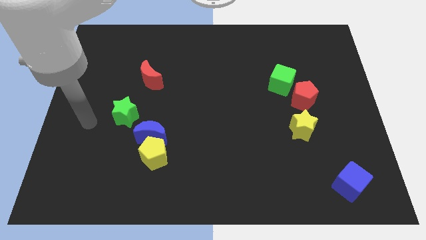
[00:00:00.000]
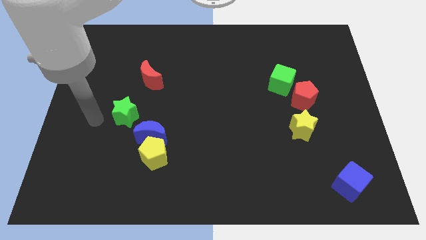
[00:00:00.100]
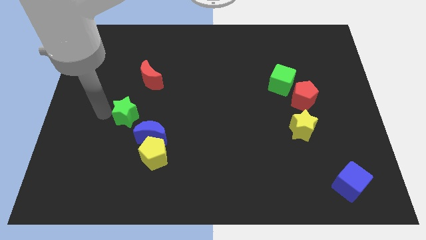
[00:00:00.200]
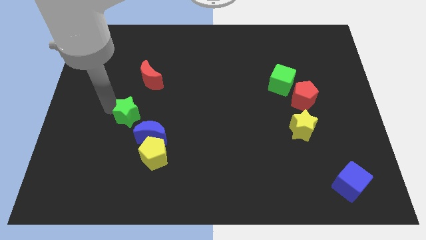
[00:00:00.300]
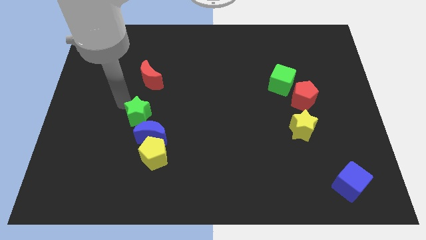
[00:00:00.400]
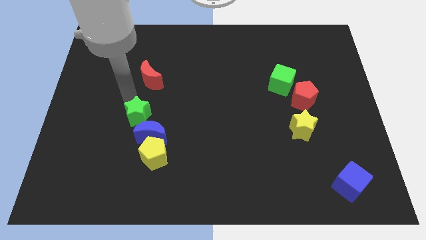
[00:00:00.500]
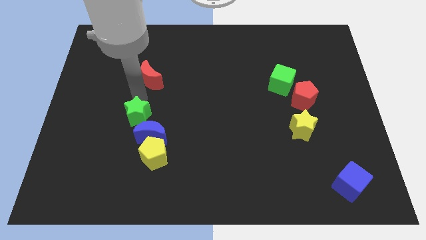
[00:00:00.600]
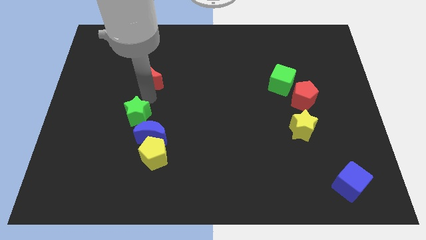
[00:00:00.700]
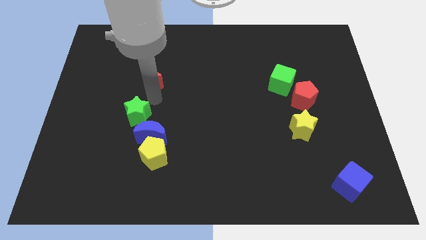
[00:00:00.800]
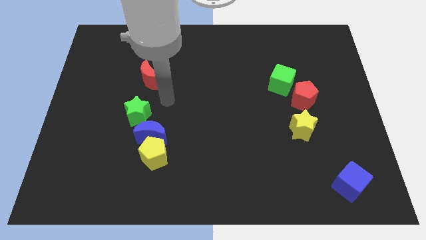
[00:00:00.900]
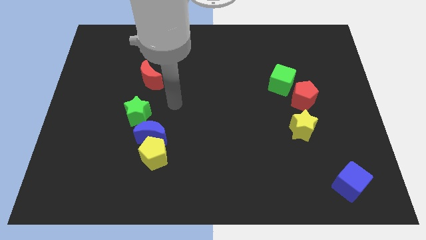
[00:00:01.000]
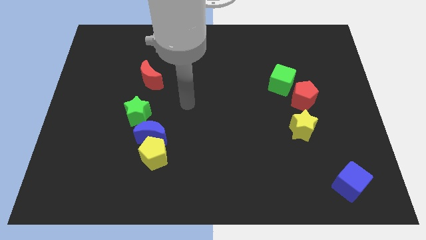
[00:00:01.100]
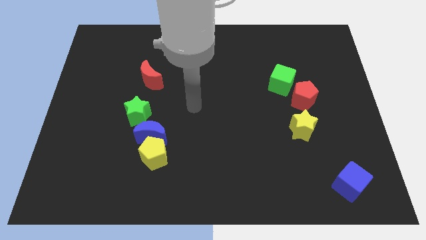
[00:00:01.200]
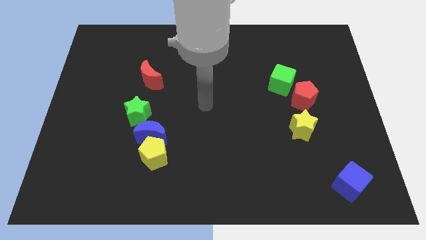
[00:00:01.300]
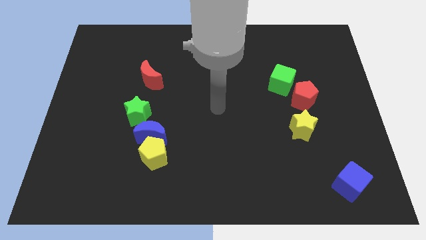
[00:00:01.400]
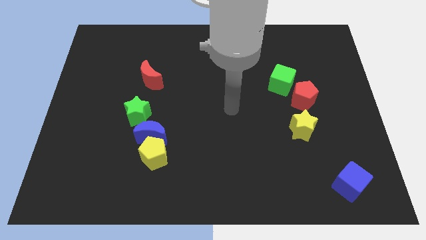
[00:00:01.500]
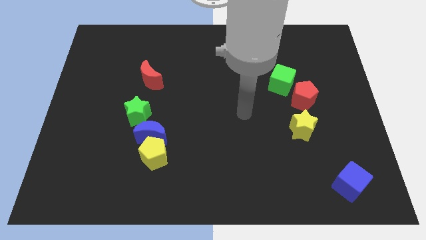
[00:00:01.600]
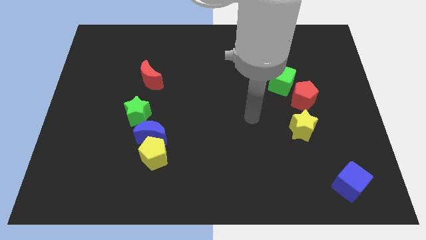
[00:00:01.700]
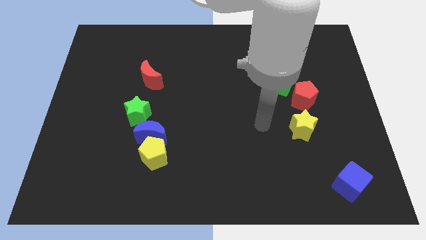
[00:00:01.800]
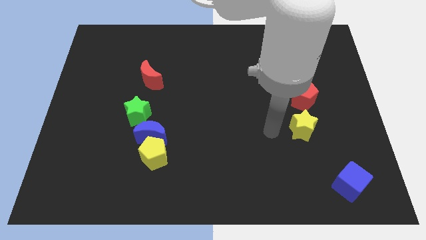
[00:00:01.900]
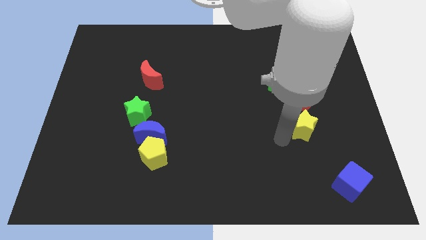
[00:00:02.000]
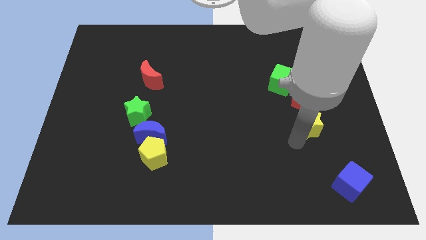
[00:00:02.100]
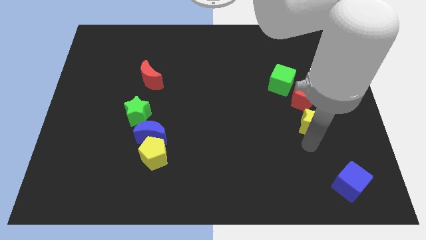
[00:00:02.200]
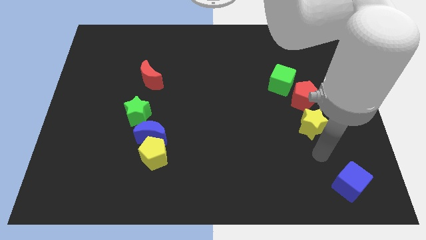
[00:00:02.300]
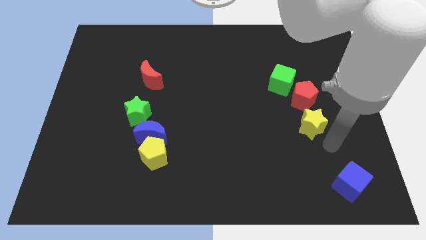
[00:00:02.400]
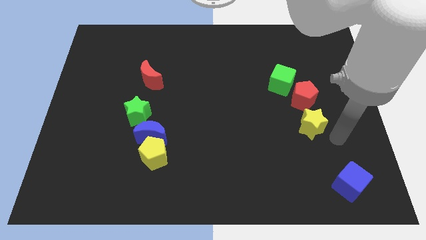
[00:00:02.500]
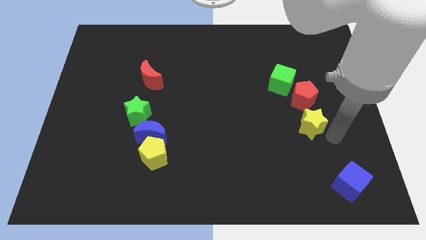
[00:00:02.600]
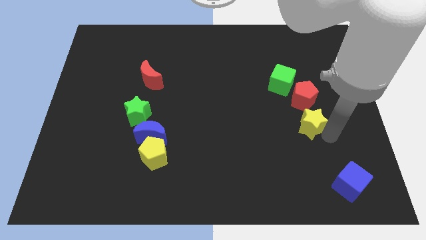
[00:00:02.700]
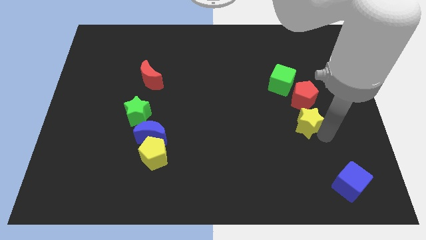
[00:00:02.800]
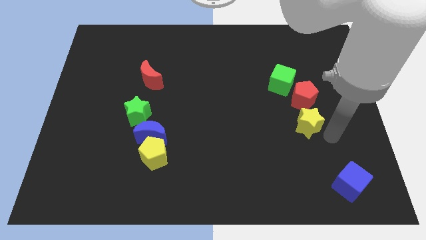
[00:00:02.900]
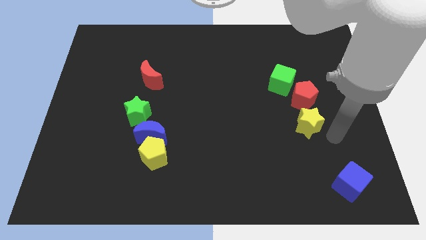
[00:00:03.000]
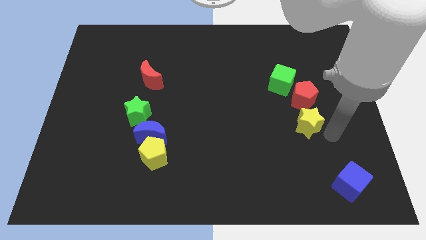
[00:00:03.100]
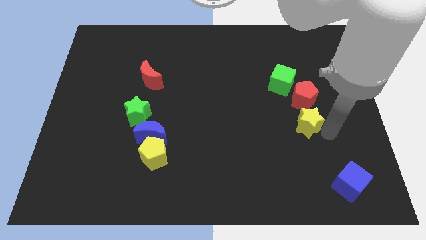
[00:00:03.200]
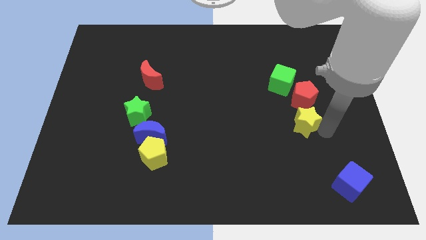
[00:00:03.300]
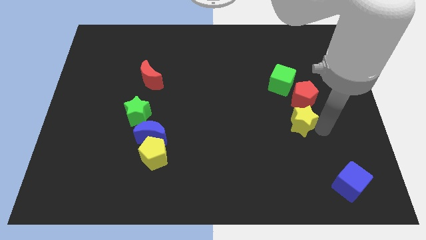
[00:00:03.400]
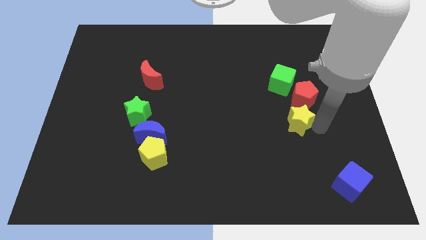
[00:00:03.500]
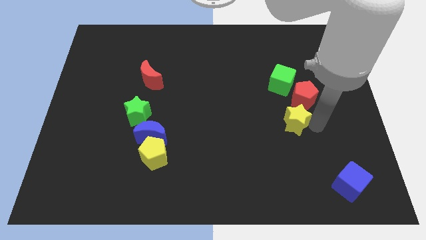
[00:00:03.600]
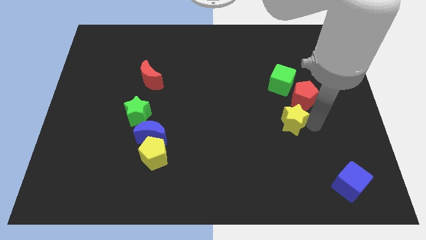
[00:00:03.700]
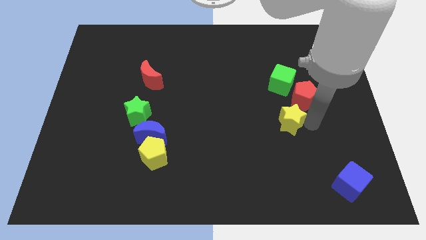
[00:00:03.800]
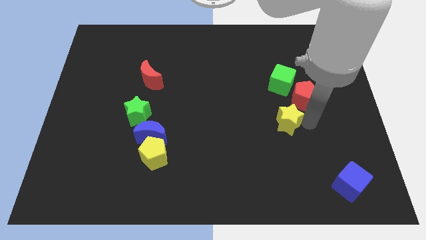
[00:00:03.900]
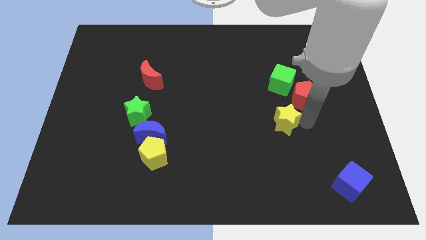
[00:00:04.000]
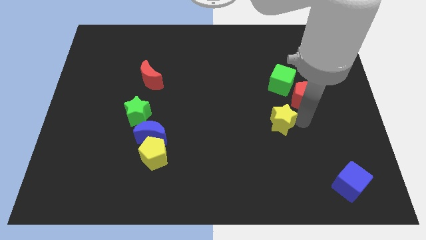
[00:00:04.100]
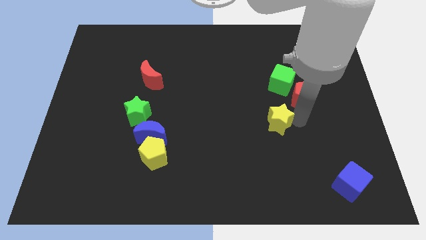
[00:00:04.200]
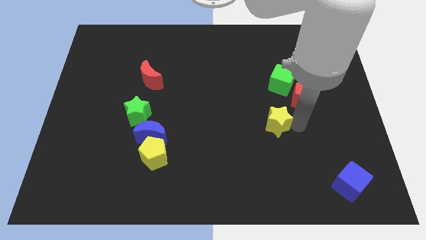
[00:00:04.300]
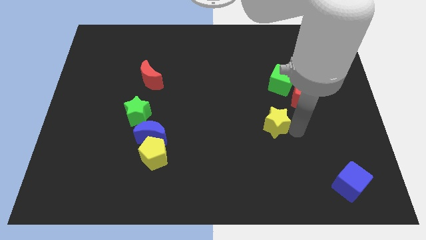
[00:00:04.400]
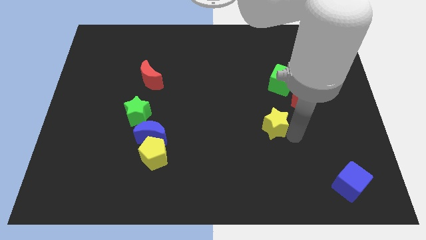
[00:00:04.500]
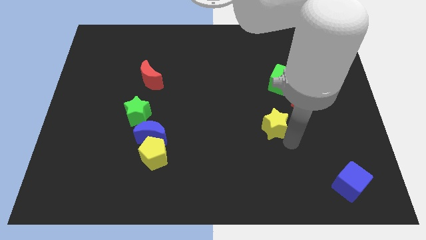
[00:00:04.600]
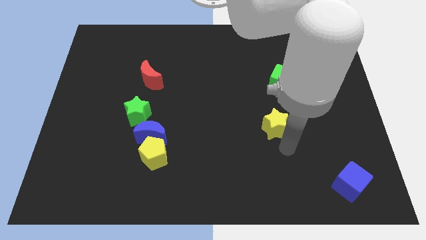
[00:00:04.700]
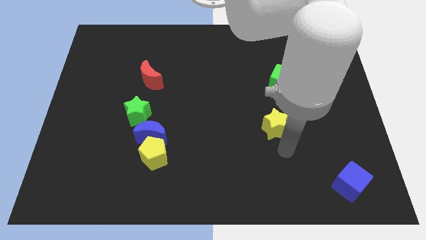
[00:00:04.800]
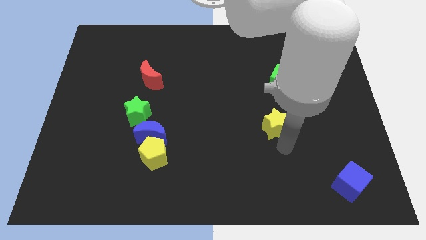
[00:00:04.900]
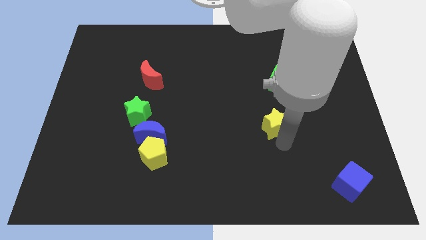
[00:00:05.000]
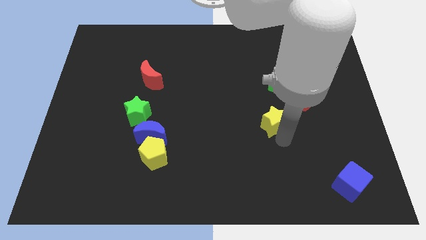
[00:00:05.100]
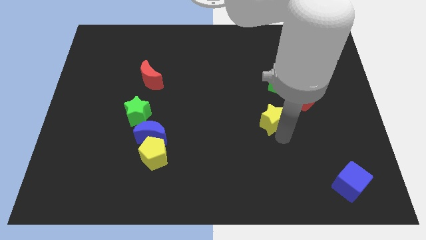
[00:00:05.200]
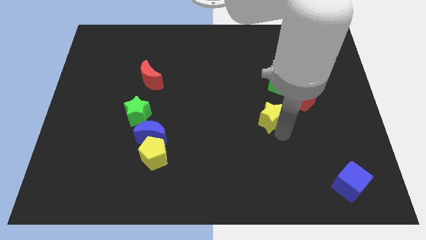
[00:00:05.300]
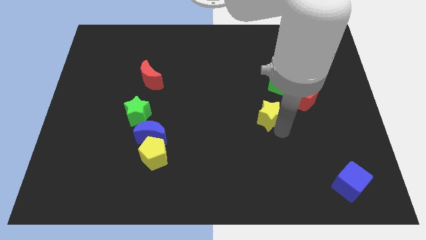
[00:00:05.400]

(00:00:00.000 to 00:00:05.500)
slightly move the yellow star diagonally upwards and left

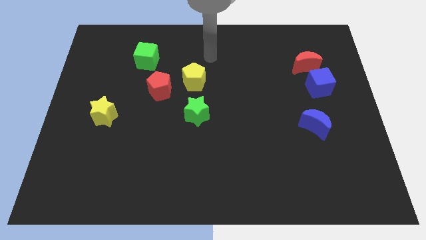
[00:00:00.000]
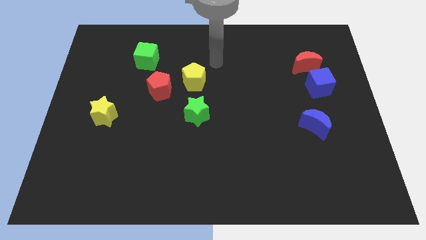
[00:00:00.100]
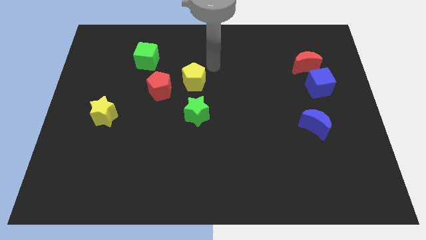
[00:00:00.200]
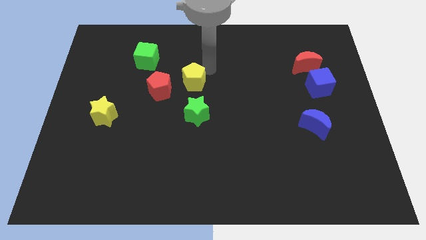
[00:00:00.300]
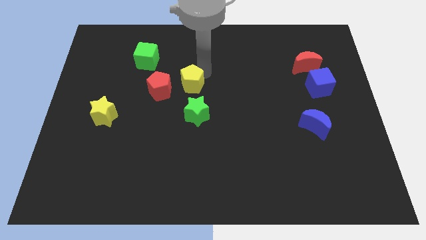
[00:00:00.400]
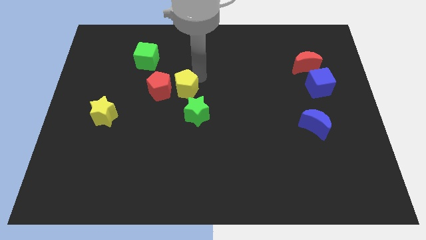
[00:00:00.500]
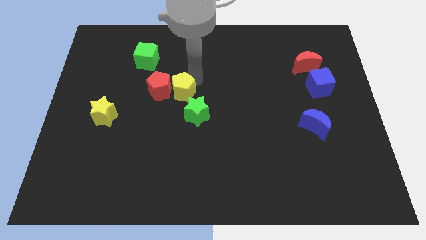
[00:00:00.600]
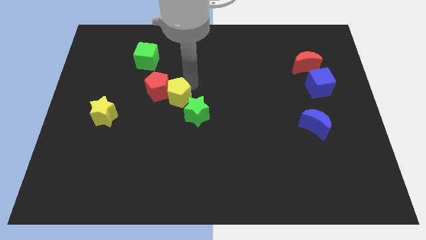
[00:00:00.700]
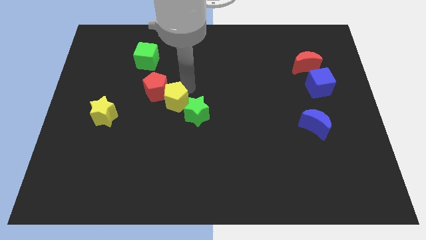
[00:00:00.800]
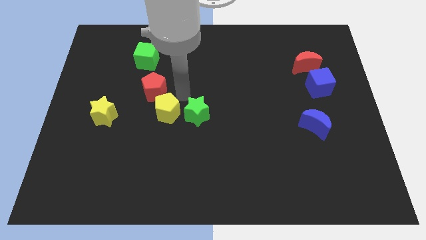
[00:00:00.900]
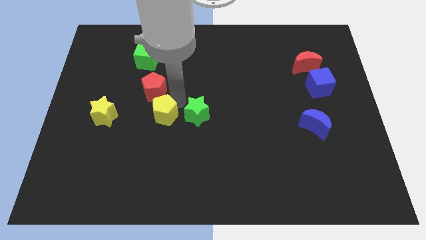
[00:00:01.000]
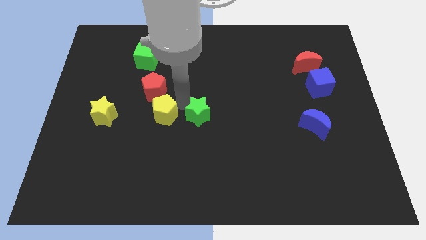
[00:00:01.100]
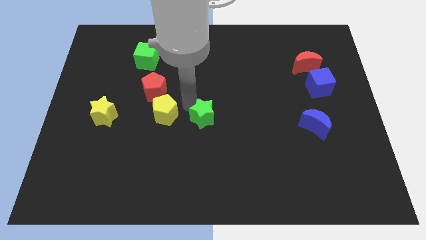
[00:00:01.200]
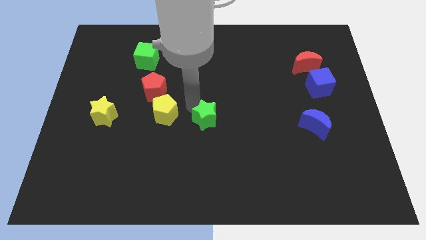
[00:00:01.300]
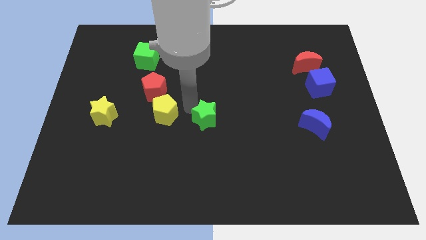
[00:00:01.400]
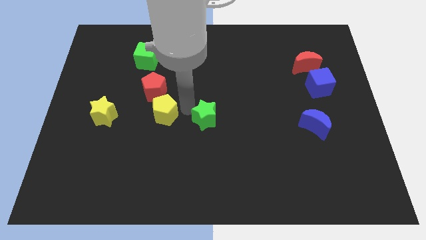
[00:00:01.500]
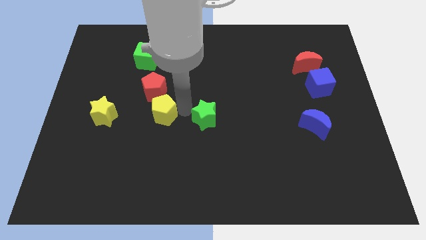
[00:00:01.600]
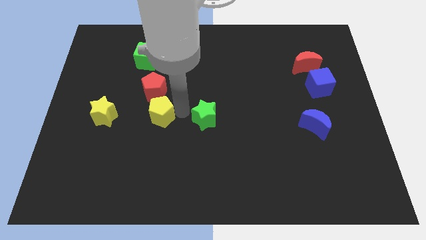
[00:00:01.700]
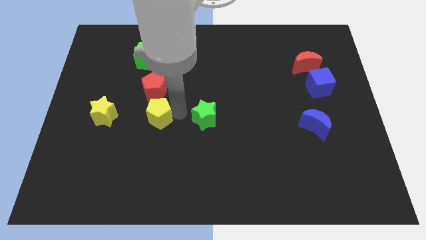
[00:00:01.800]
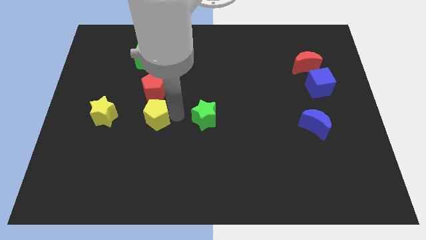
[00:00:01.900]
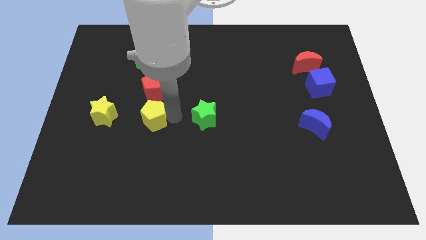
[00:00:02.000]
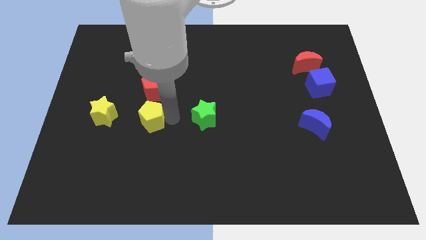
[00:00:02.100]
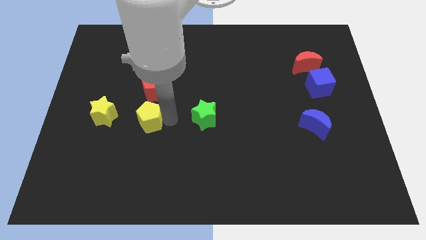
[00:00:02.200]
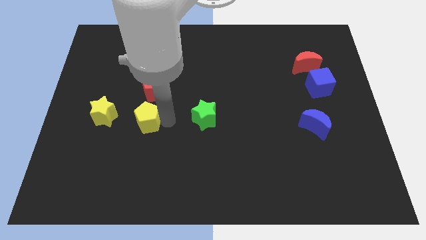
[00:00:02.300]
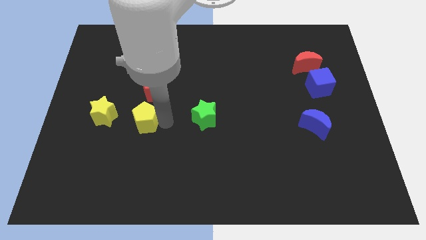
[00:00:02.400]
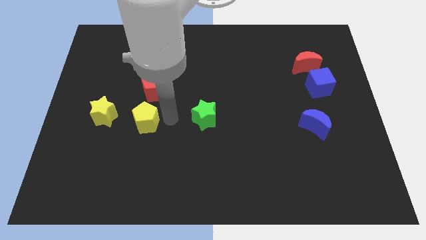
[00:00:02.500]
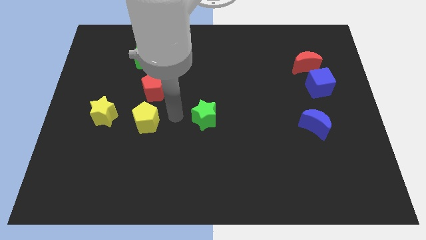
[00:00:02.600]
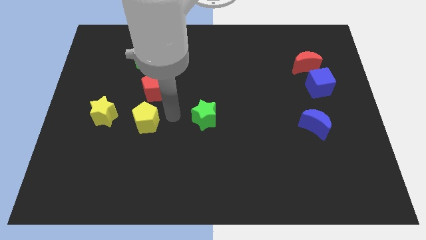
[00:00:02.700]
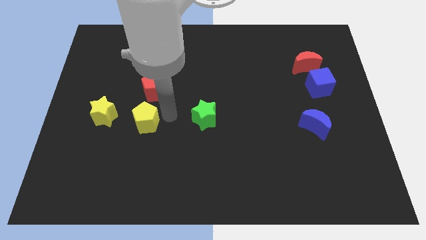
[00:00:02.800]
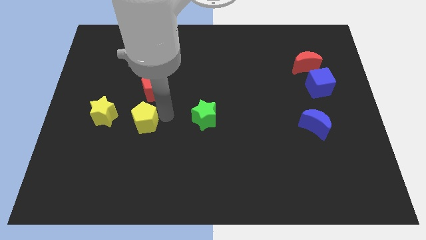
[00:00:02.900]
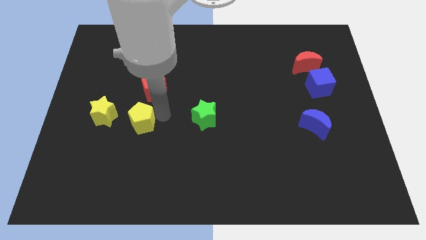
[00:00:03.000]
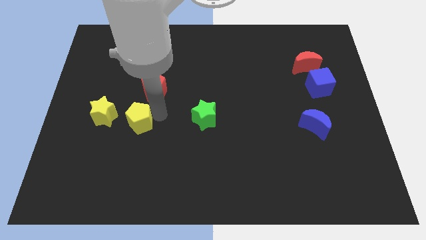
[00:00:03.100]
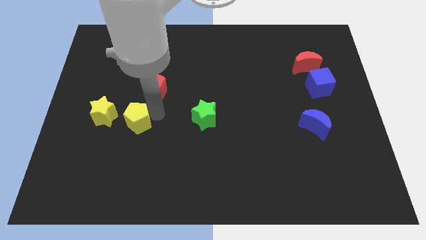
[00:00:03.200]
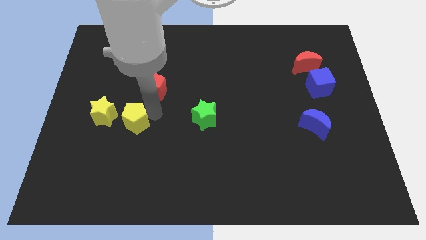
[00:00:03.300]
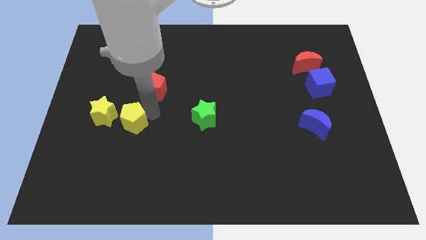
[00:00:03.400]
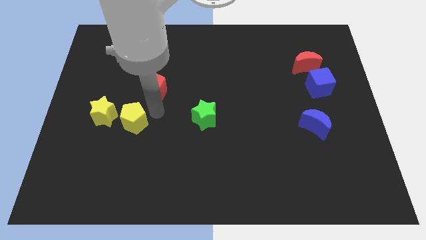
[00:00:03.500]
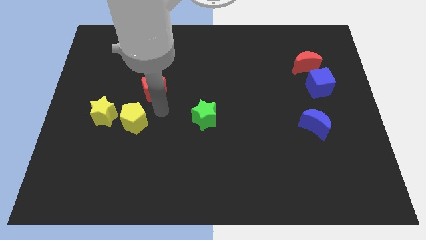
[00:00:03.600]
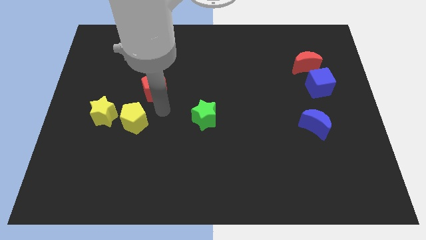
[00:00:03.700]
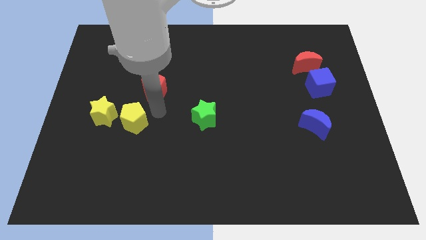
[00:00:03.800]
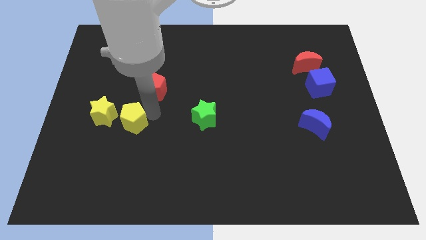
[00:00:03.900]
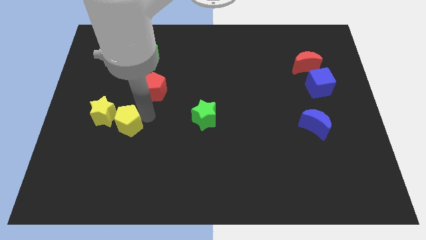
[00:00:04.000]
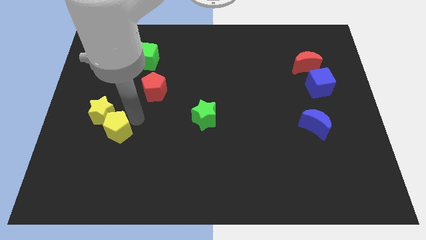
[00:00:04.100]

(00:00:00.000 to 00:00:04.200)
slide the yellow pentagon down and to the left diagonally
